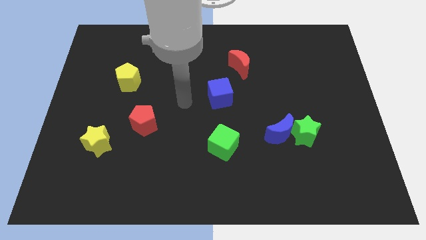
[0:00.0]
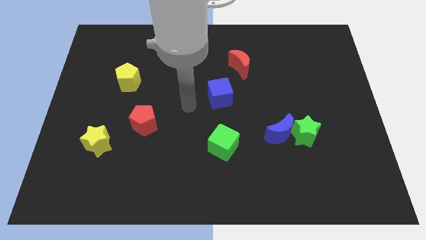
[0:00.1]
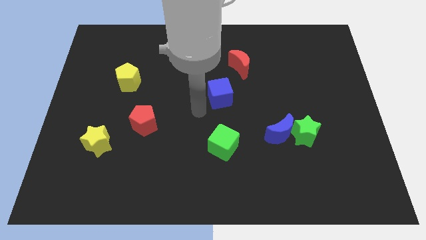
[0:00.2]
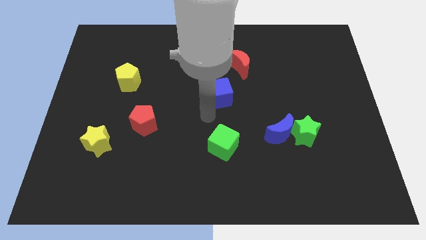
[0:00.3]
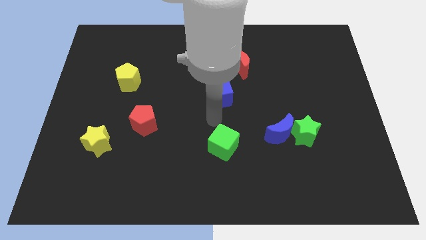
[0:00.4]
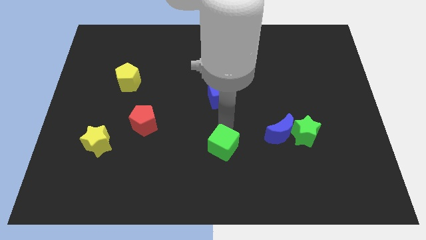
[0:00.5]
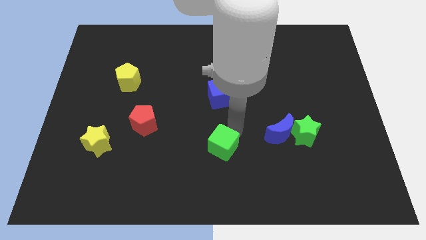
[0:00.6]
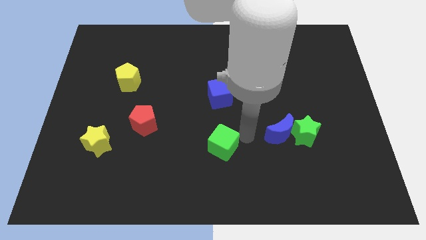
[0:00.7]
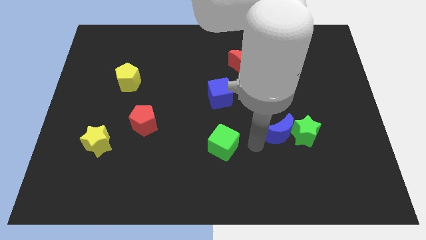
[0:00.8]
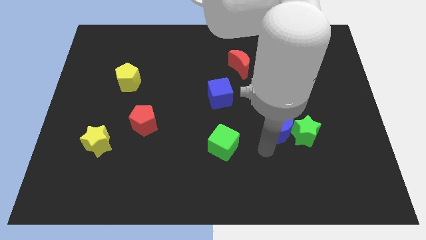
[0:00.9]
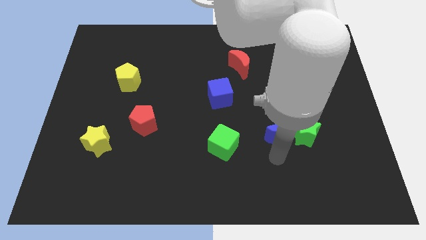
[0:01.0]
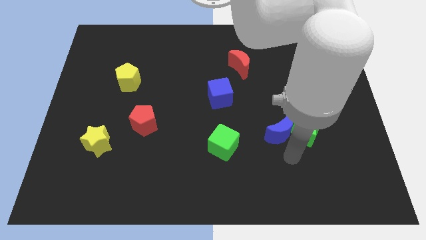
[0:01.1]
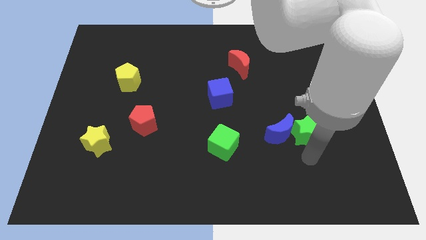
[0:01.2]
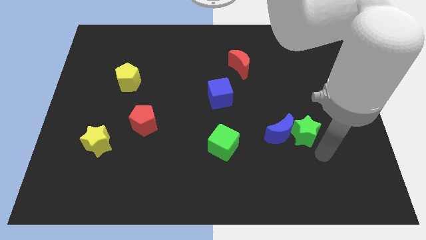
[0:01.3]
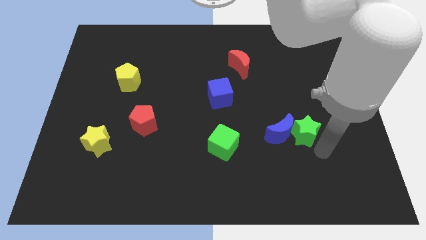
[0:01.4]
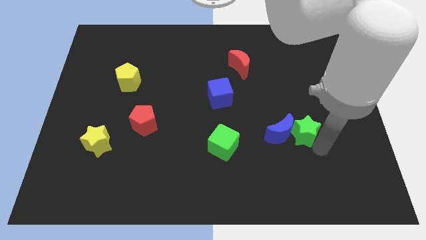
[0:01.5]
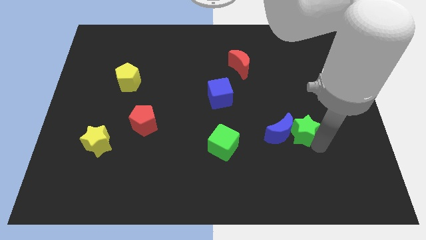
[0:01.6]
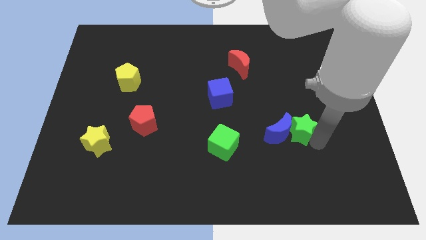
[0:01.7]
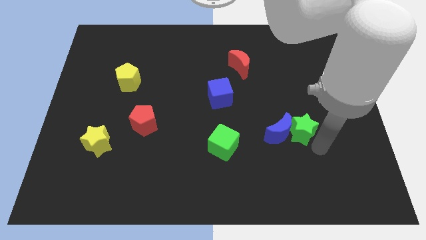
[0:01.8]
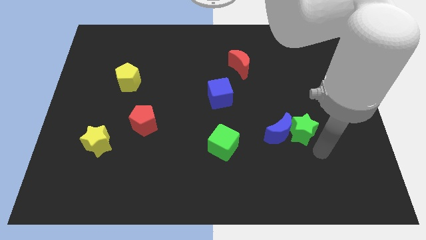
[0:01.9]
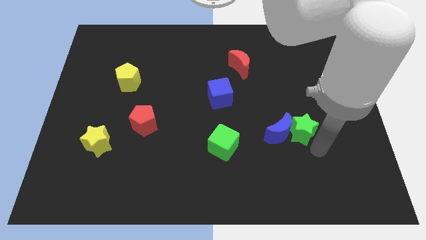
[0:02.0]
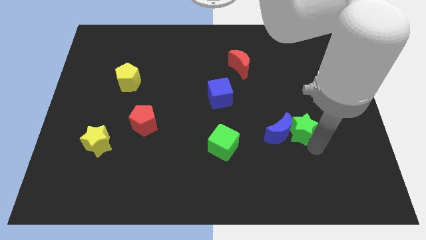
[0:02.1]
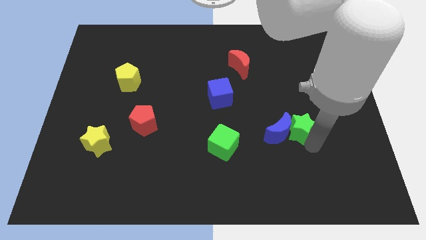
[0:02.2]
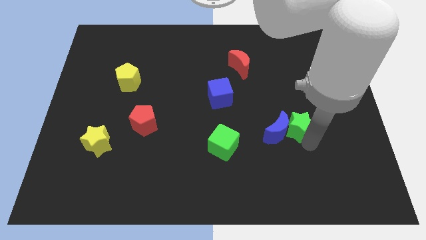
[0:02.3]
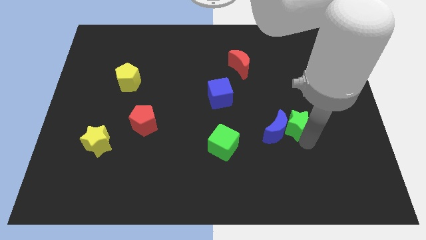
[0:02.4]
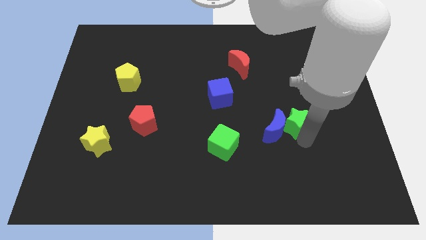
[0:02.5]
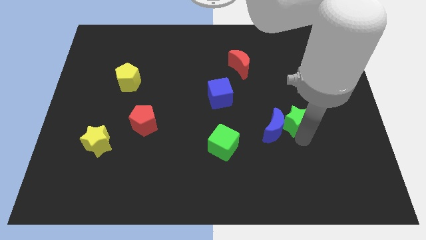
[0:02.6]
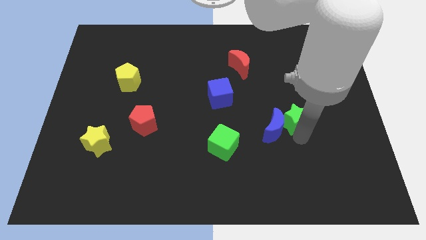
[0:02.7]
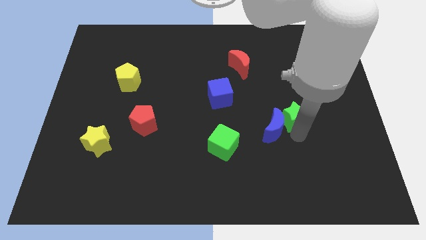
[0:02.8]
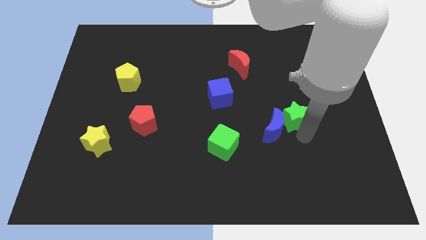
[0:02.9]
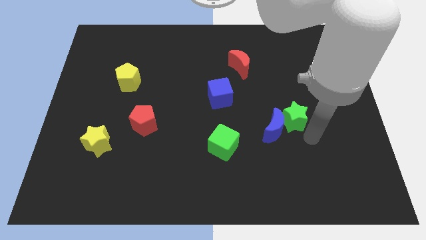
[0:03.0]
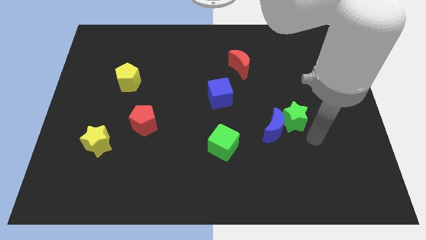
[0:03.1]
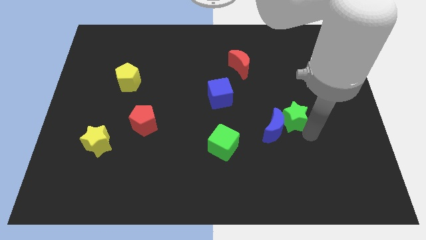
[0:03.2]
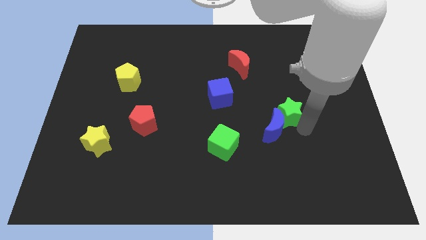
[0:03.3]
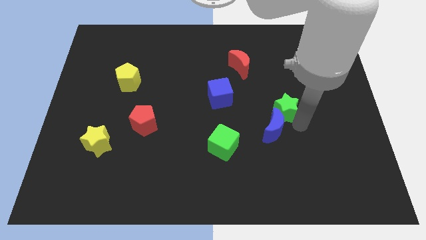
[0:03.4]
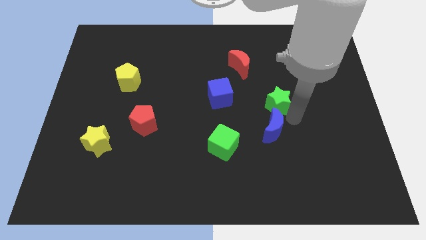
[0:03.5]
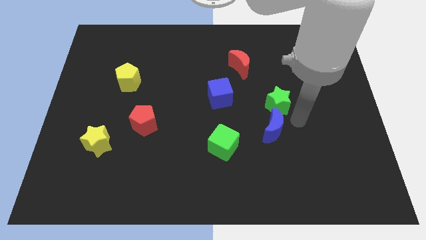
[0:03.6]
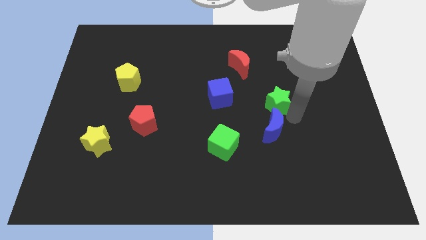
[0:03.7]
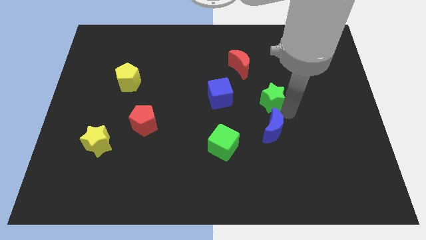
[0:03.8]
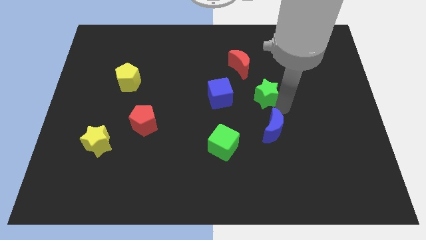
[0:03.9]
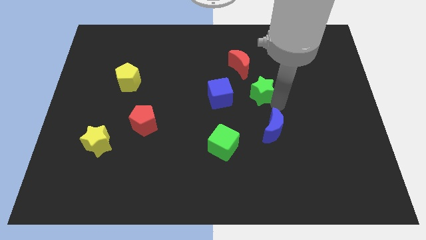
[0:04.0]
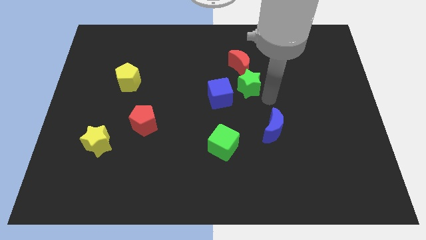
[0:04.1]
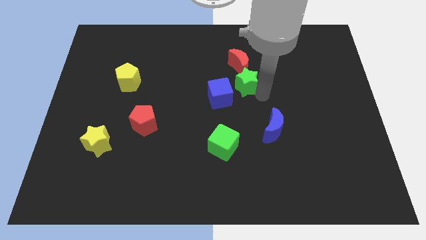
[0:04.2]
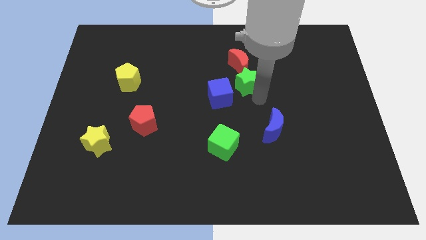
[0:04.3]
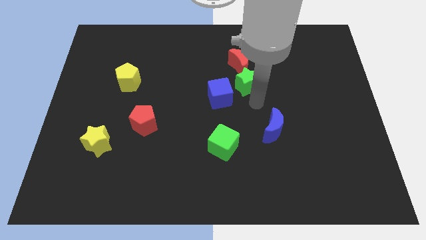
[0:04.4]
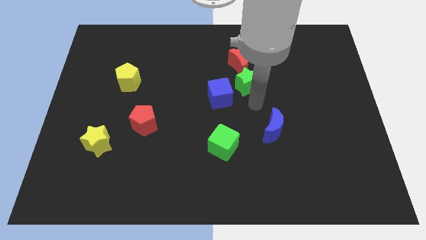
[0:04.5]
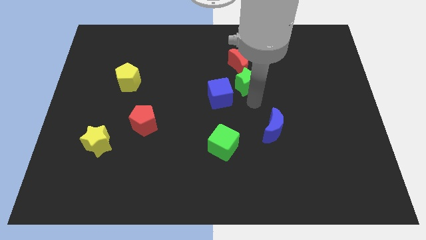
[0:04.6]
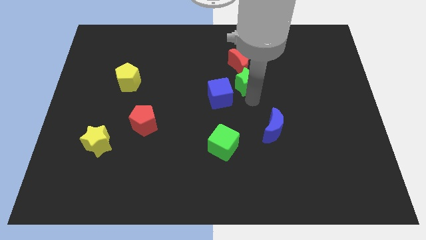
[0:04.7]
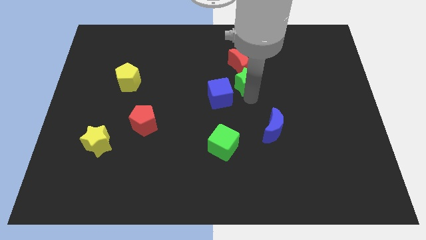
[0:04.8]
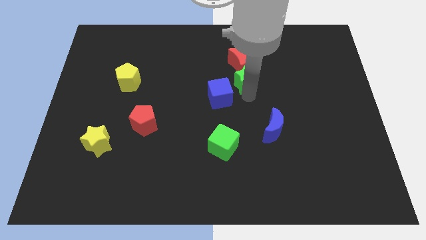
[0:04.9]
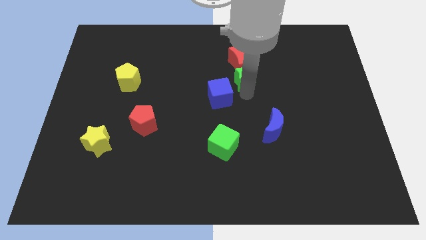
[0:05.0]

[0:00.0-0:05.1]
put the green star close to the red moon

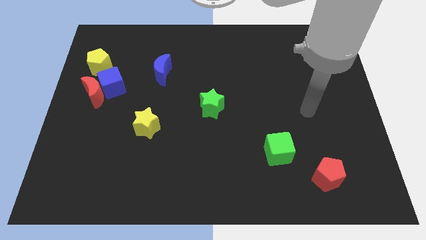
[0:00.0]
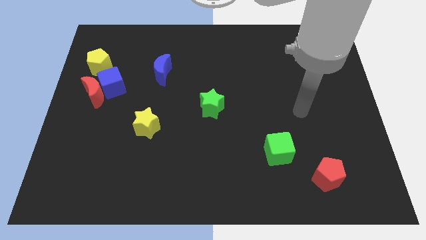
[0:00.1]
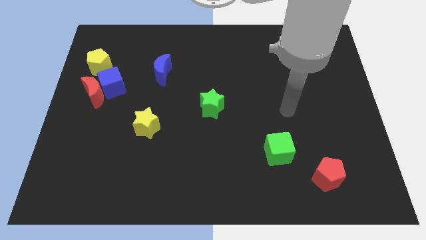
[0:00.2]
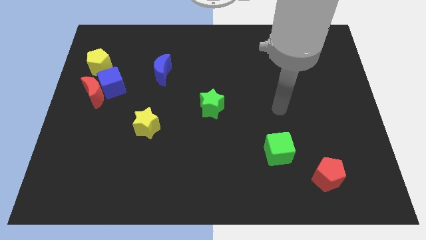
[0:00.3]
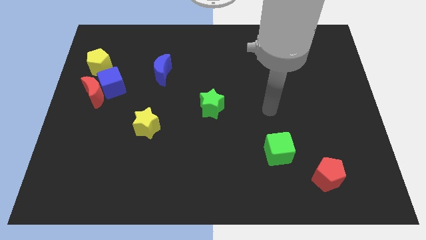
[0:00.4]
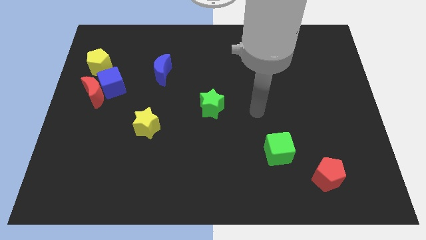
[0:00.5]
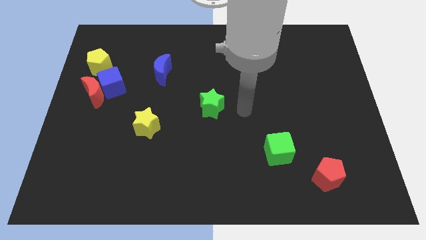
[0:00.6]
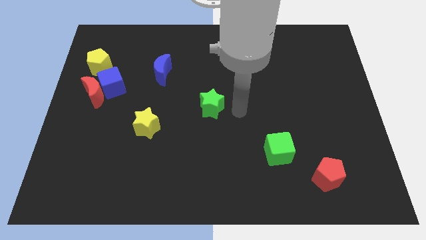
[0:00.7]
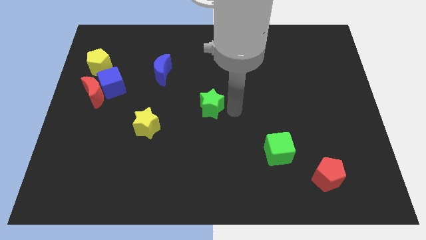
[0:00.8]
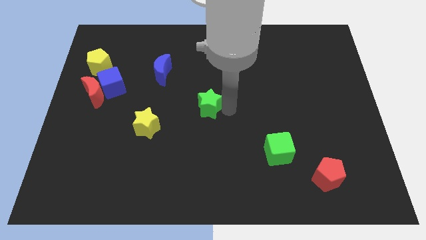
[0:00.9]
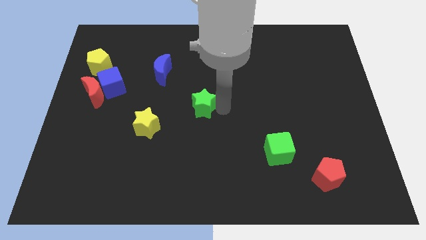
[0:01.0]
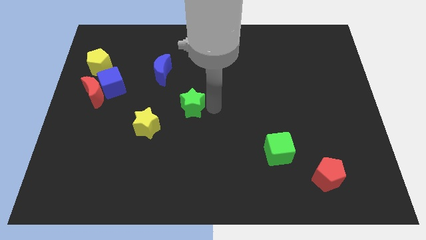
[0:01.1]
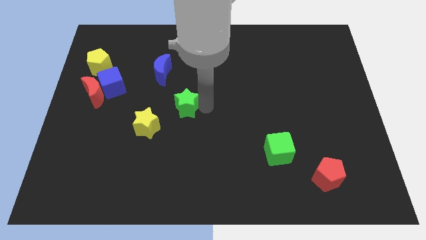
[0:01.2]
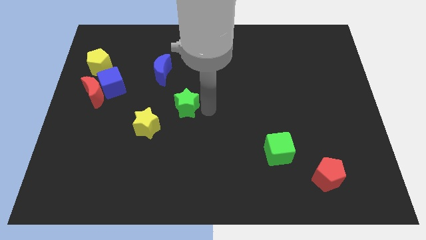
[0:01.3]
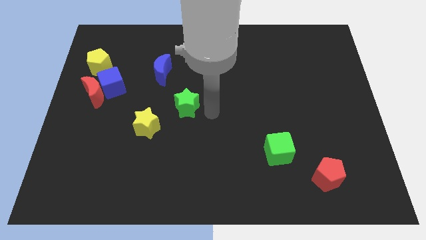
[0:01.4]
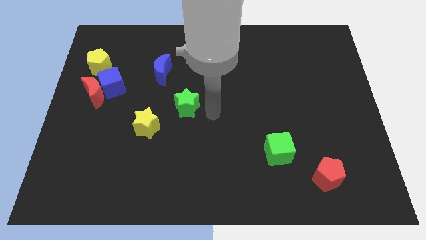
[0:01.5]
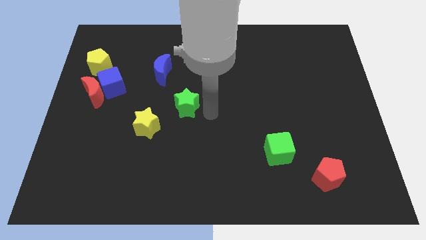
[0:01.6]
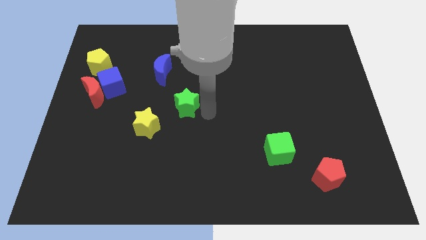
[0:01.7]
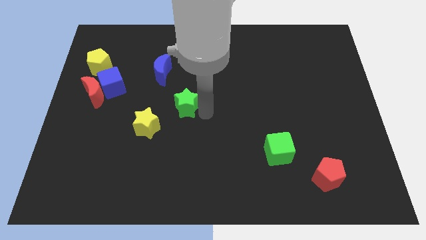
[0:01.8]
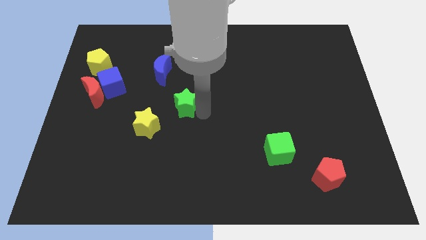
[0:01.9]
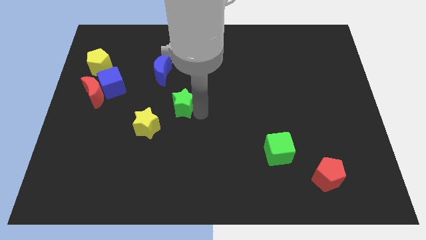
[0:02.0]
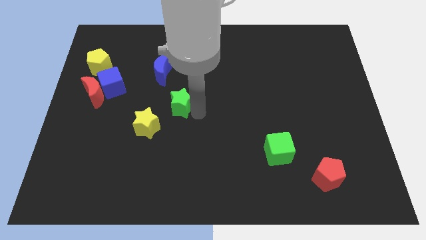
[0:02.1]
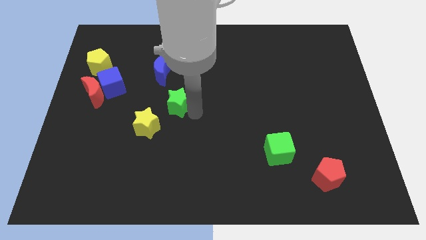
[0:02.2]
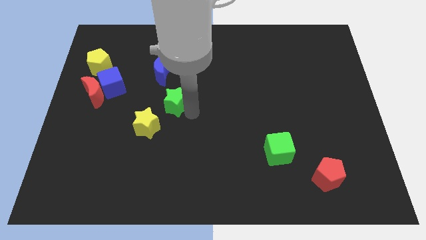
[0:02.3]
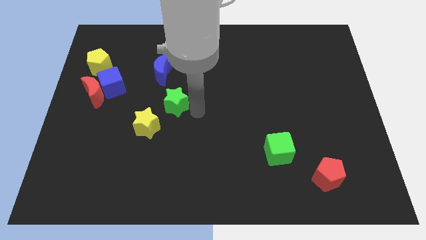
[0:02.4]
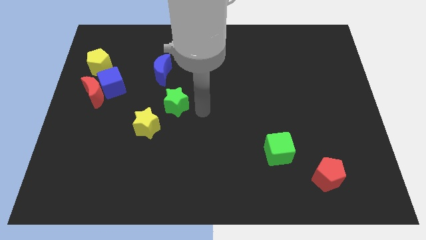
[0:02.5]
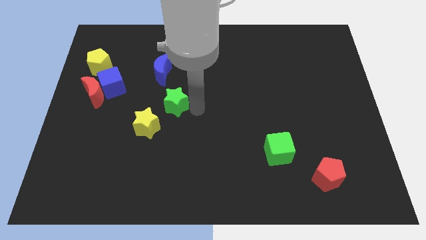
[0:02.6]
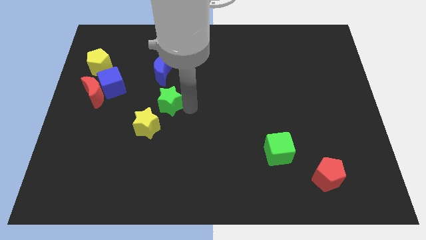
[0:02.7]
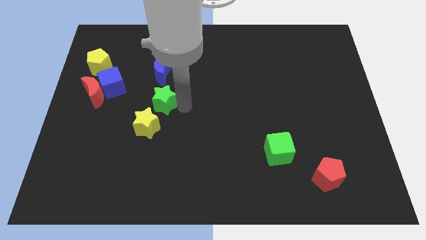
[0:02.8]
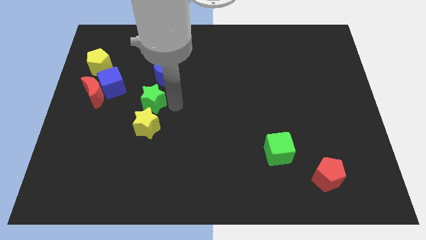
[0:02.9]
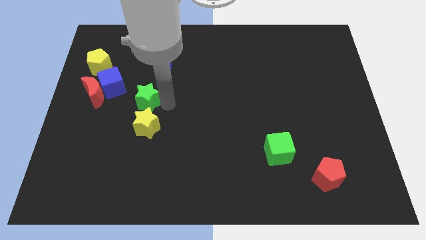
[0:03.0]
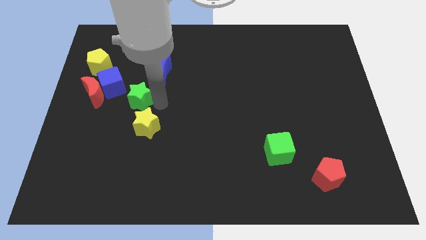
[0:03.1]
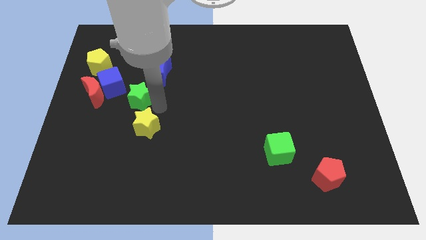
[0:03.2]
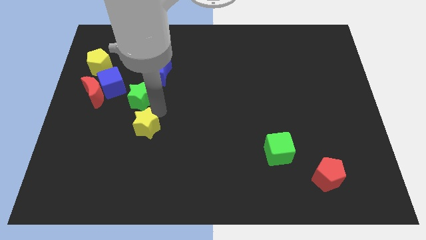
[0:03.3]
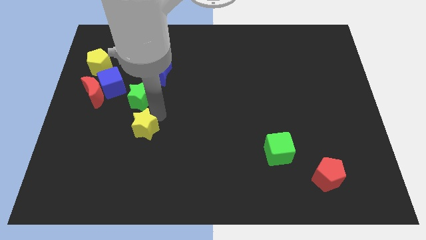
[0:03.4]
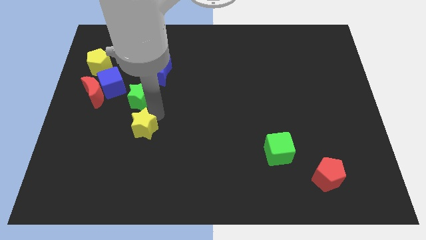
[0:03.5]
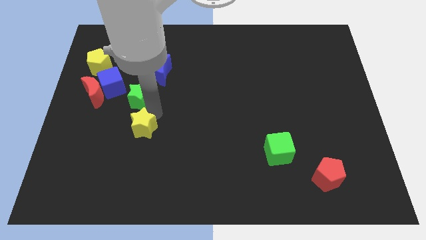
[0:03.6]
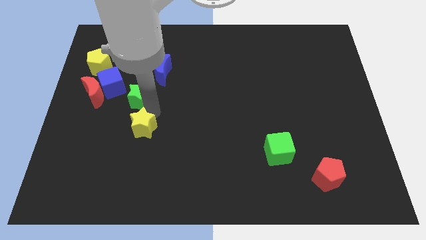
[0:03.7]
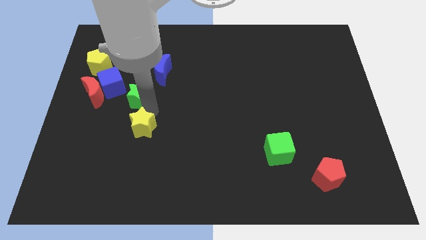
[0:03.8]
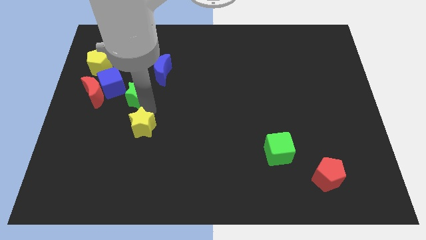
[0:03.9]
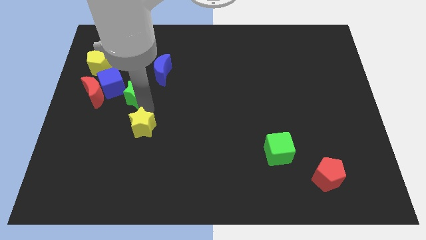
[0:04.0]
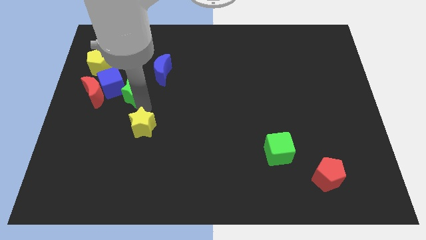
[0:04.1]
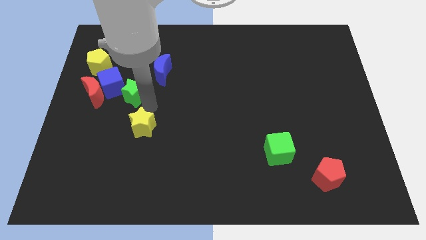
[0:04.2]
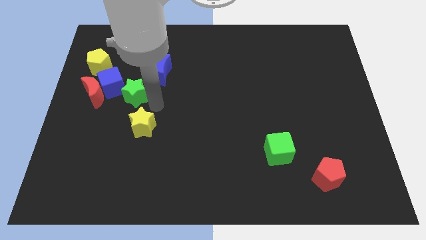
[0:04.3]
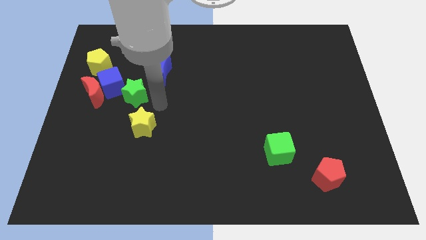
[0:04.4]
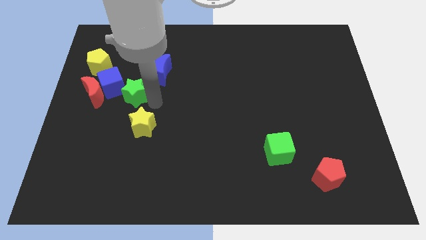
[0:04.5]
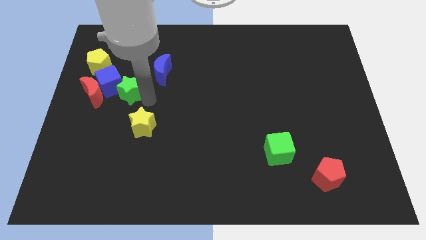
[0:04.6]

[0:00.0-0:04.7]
push the green star to the blue cube
